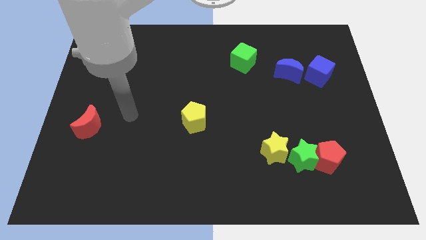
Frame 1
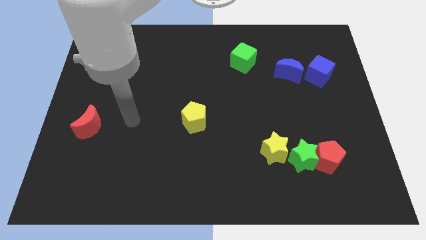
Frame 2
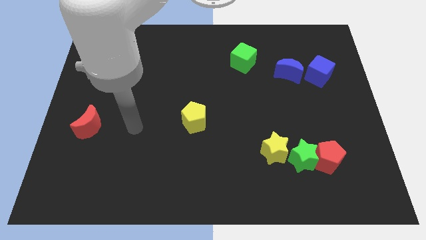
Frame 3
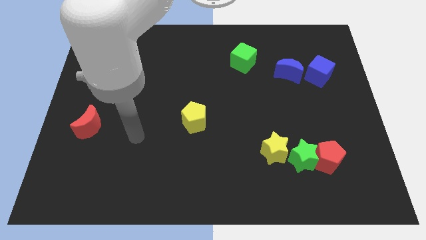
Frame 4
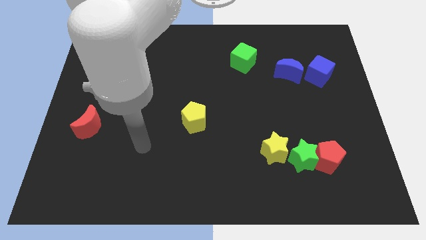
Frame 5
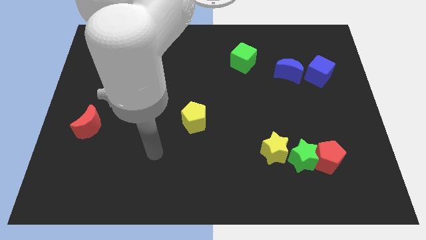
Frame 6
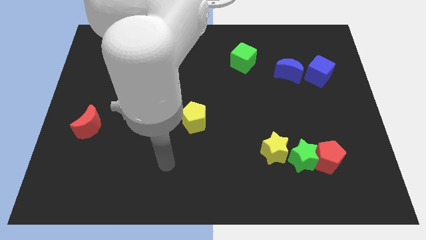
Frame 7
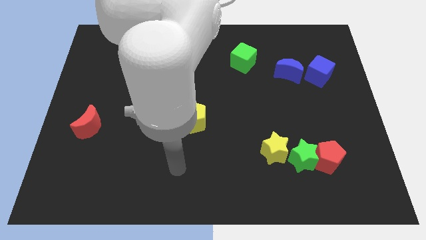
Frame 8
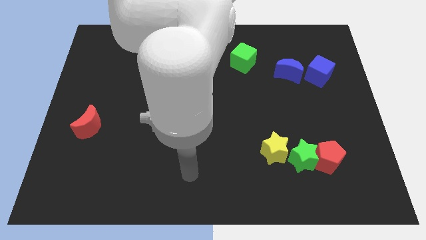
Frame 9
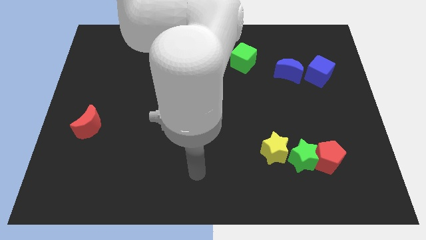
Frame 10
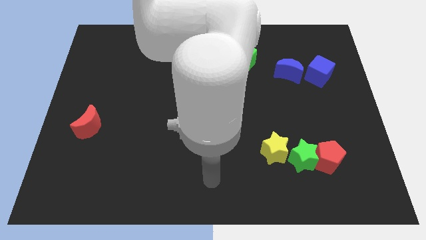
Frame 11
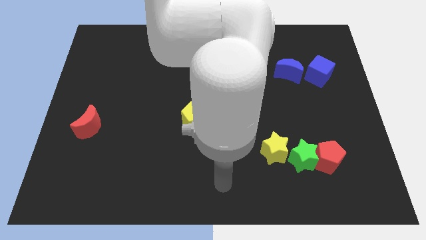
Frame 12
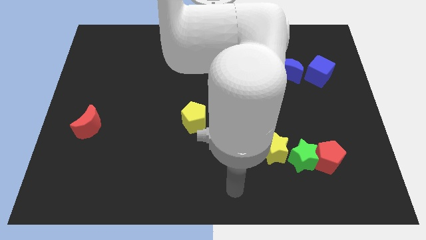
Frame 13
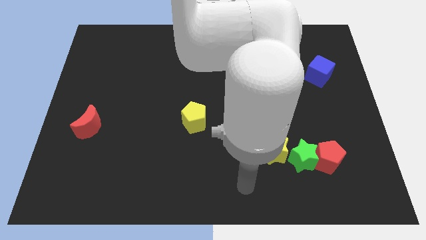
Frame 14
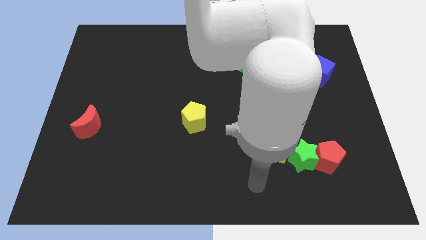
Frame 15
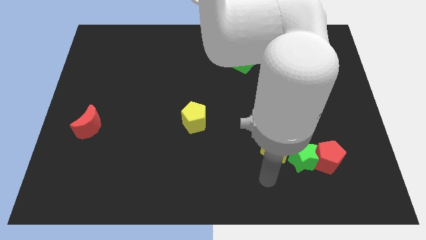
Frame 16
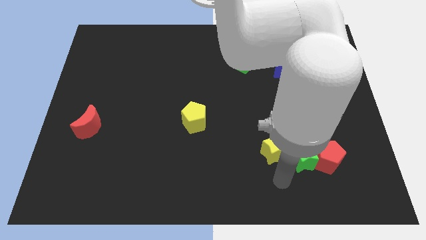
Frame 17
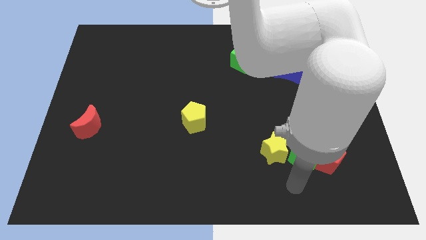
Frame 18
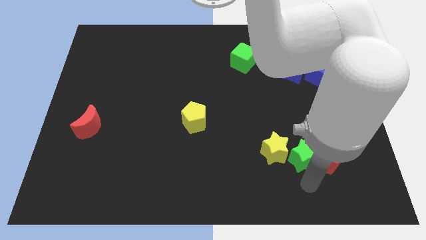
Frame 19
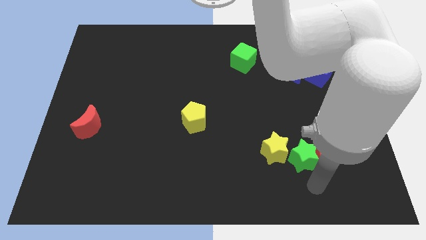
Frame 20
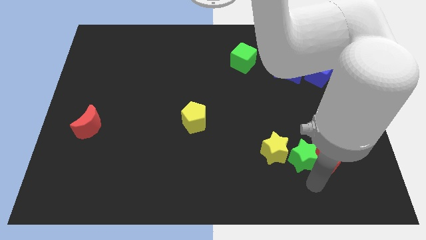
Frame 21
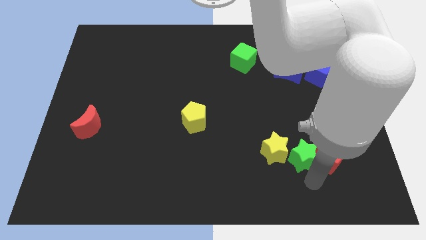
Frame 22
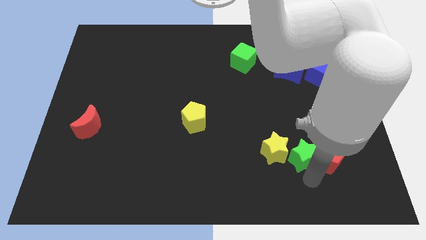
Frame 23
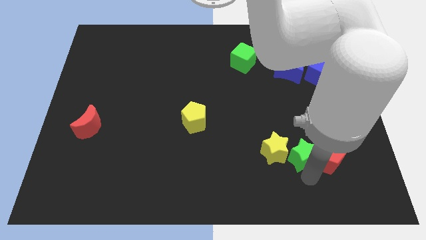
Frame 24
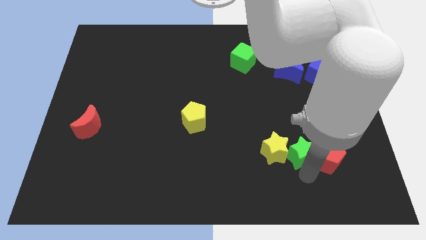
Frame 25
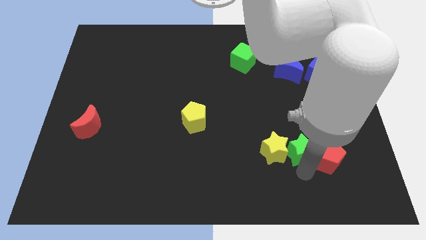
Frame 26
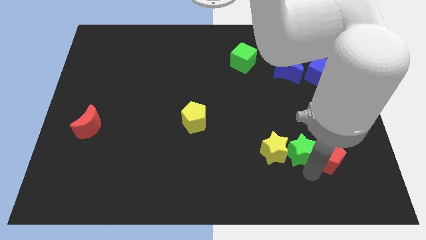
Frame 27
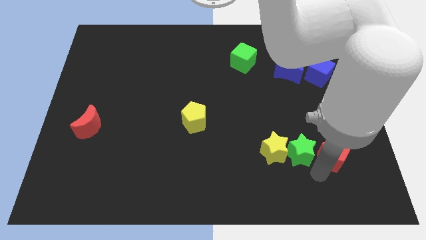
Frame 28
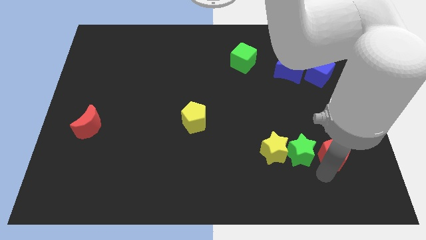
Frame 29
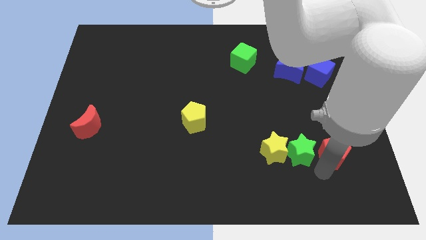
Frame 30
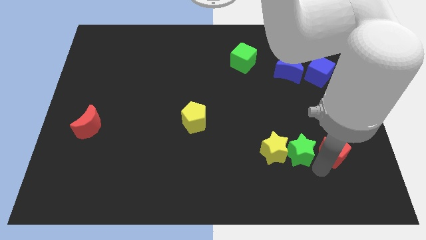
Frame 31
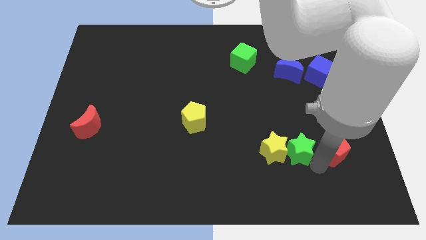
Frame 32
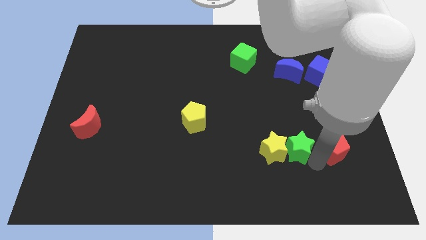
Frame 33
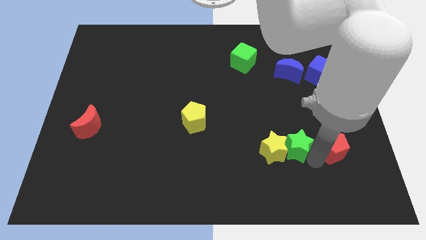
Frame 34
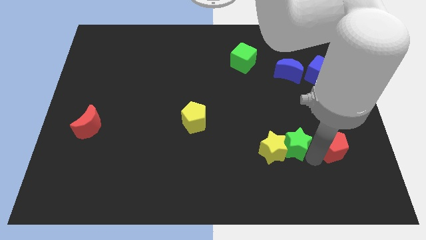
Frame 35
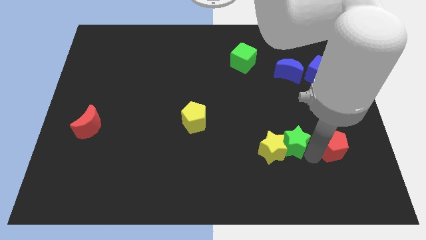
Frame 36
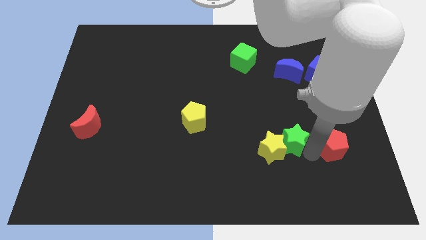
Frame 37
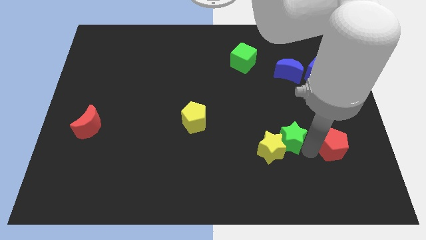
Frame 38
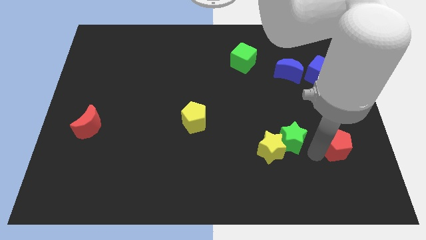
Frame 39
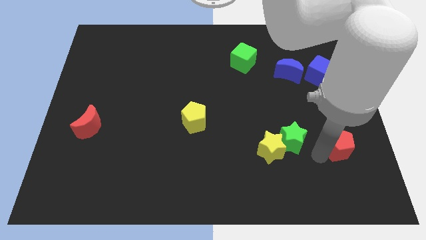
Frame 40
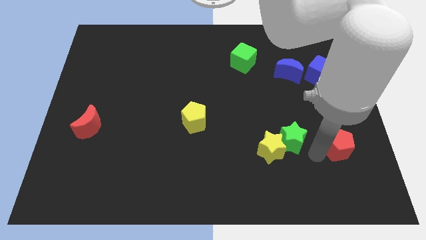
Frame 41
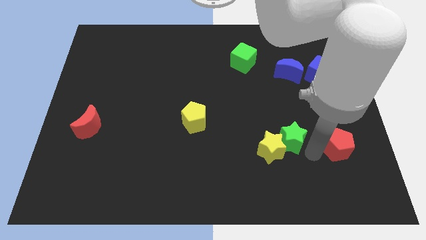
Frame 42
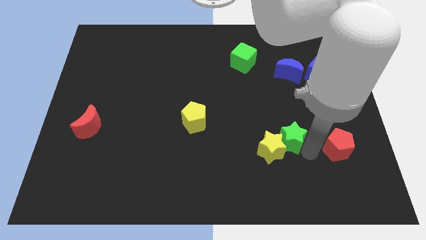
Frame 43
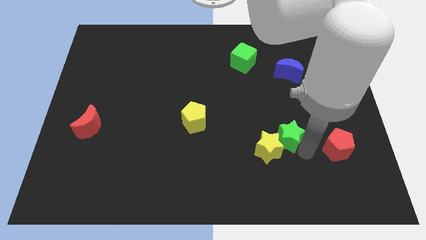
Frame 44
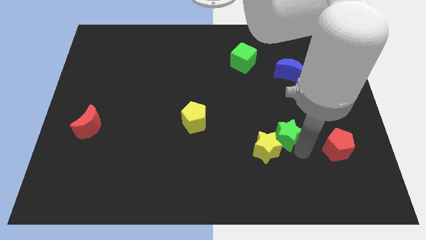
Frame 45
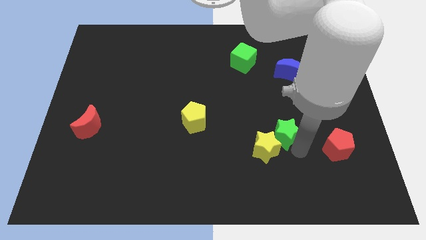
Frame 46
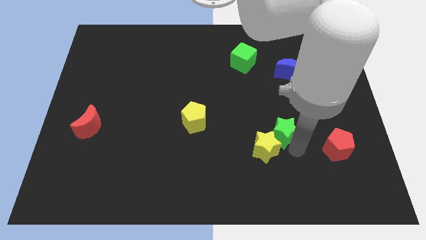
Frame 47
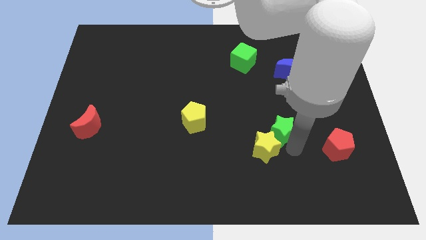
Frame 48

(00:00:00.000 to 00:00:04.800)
move the green star slightly upwards and left

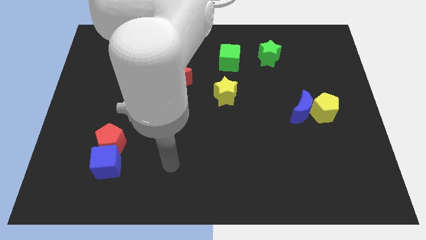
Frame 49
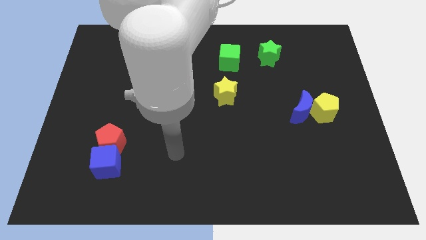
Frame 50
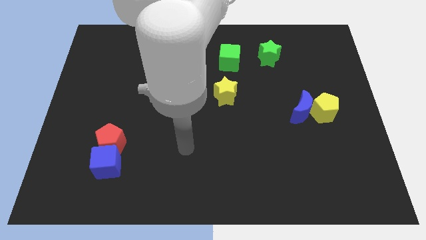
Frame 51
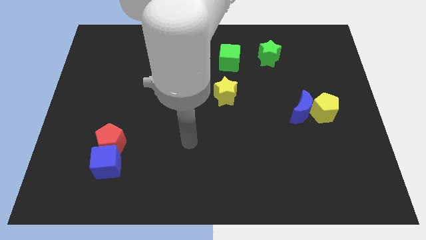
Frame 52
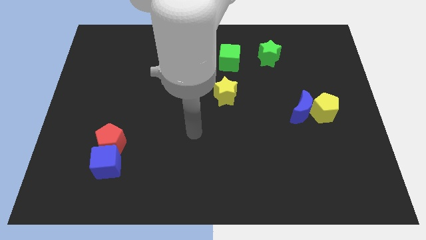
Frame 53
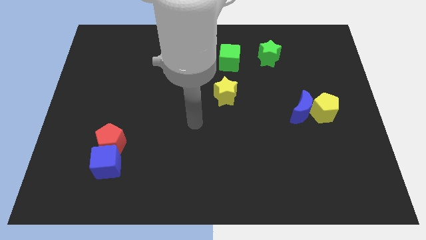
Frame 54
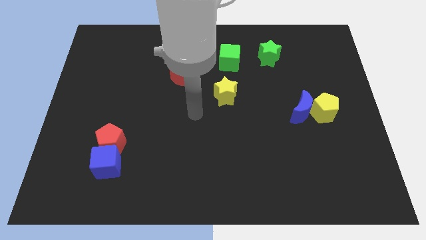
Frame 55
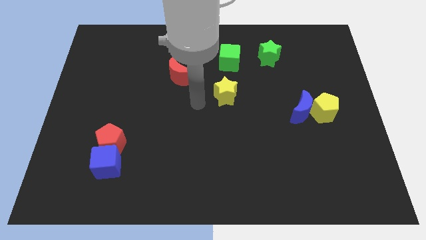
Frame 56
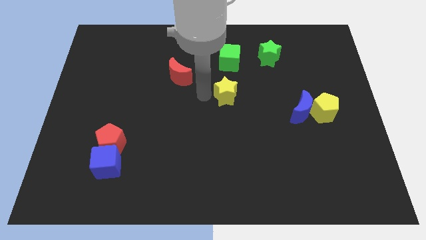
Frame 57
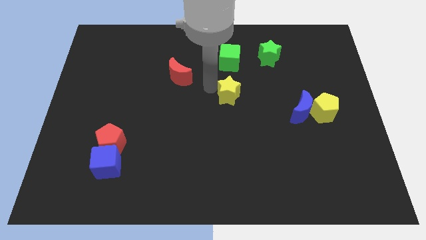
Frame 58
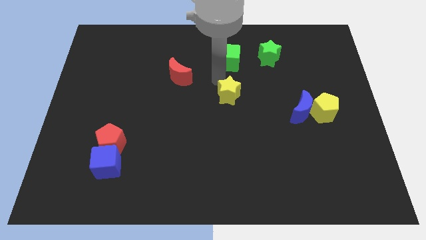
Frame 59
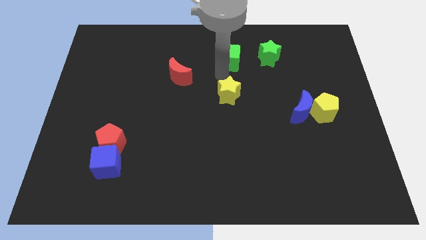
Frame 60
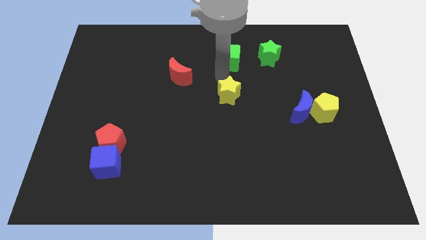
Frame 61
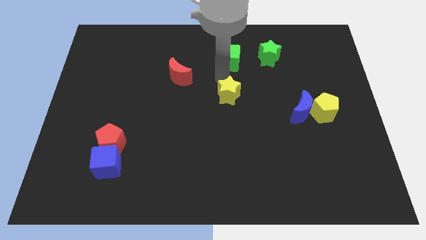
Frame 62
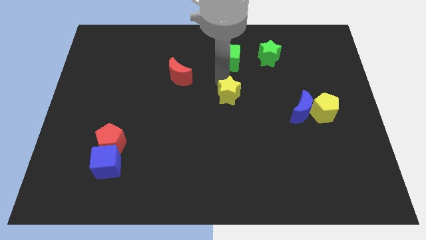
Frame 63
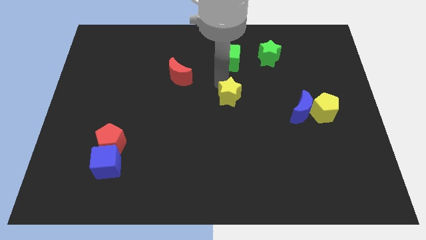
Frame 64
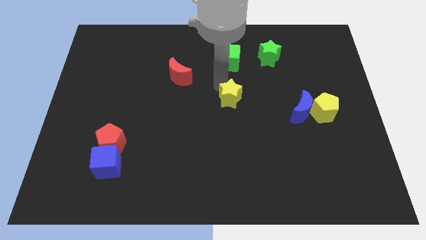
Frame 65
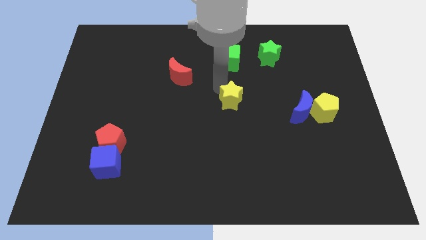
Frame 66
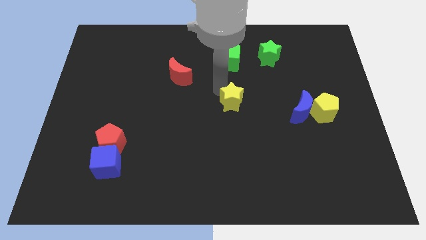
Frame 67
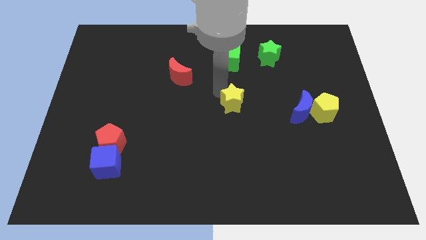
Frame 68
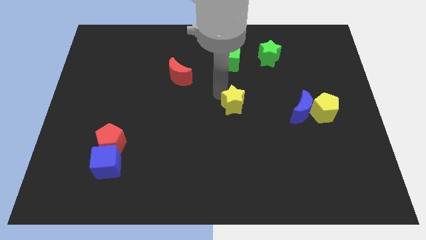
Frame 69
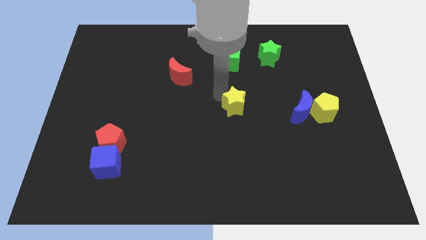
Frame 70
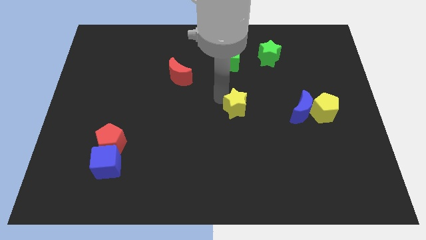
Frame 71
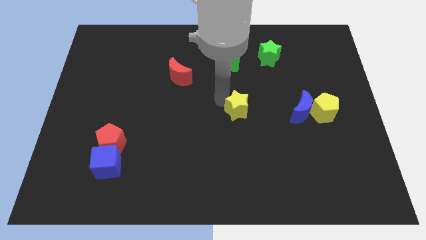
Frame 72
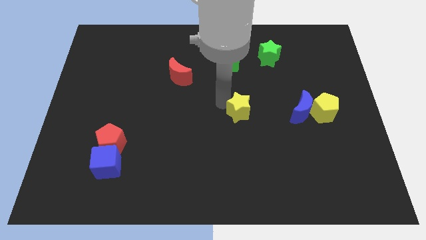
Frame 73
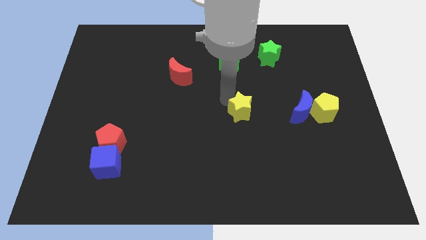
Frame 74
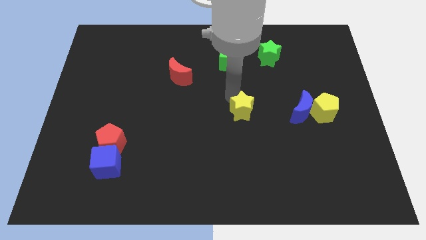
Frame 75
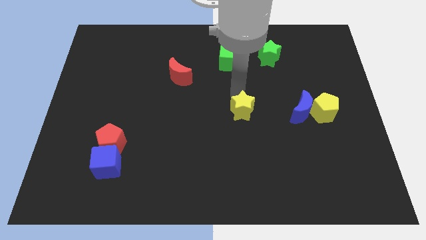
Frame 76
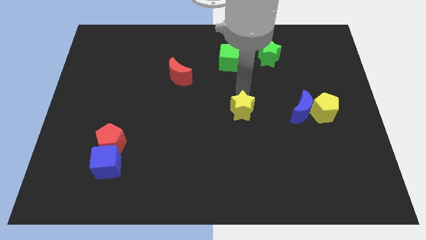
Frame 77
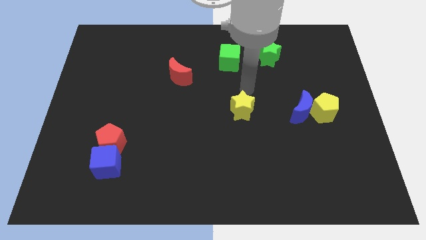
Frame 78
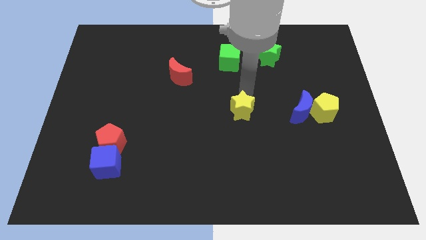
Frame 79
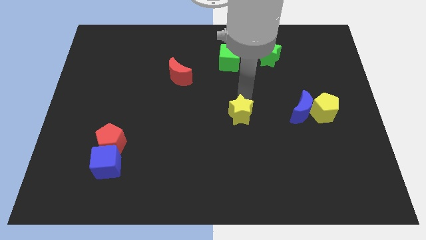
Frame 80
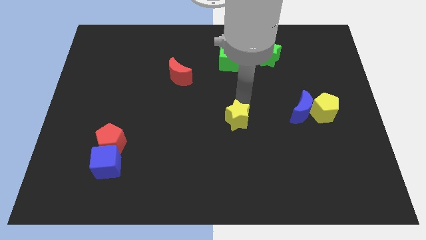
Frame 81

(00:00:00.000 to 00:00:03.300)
slightly push the yellow star down

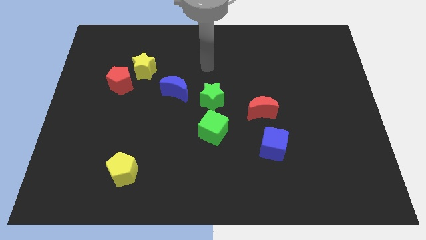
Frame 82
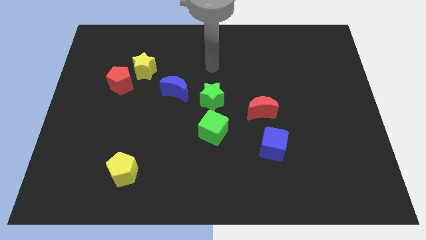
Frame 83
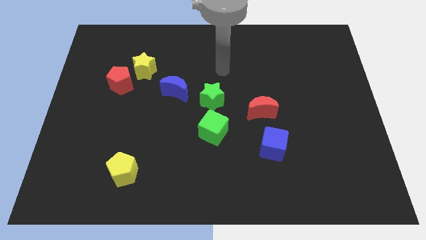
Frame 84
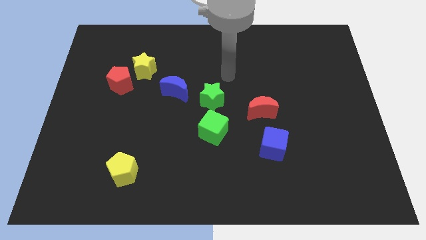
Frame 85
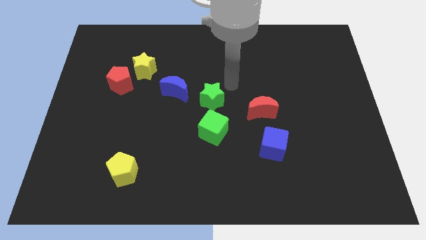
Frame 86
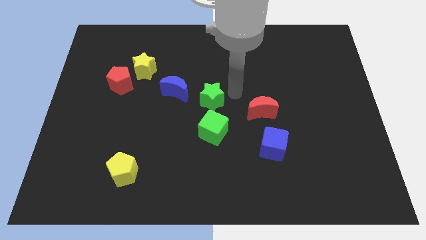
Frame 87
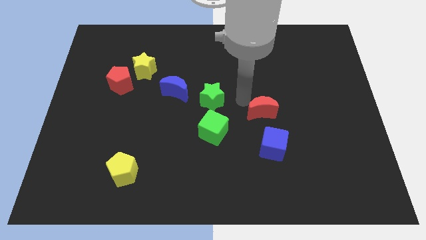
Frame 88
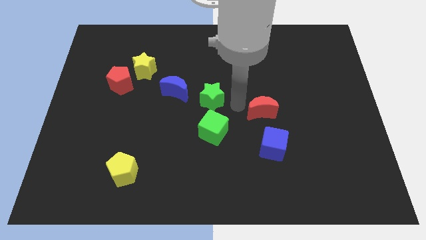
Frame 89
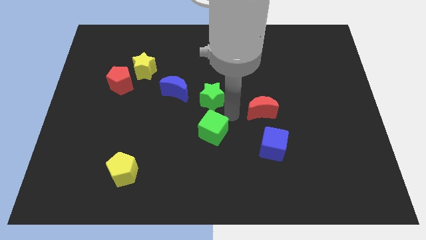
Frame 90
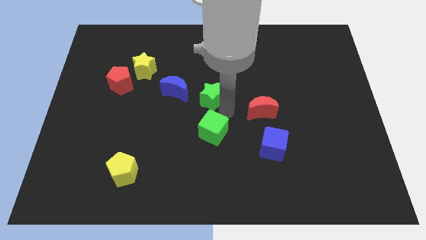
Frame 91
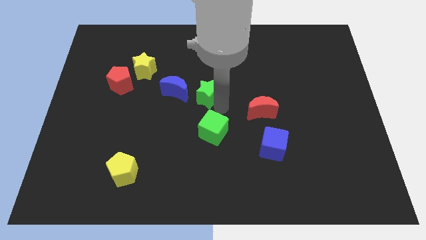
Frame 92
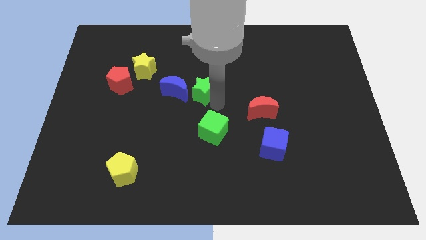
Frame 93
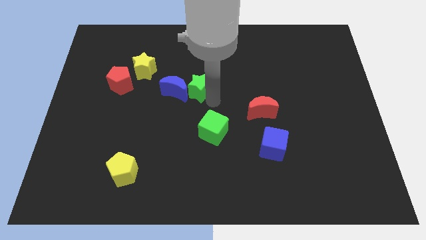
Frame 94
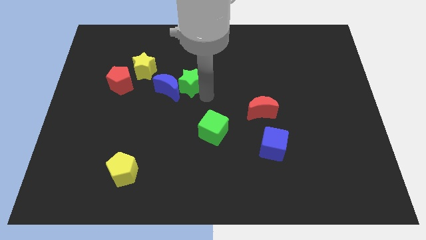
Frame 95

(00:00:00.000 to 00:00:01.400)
push the green star a little bit up and to the left diagonally
